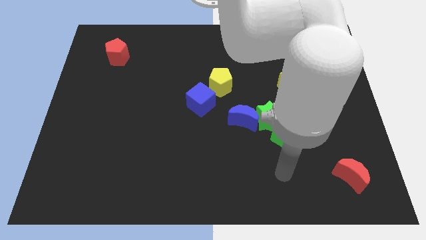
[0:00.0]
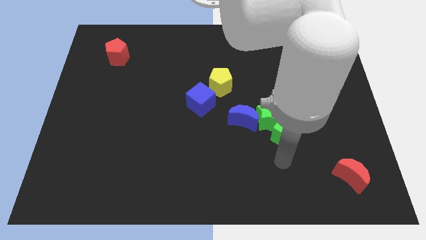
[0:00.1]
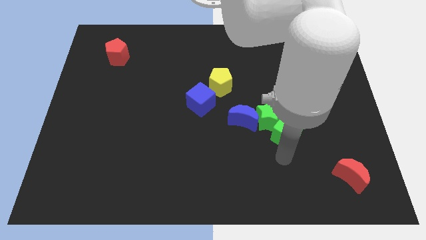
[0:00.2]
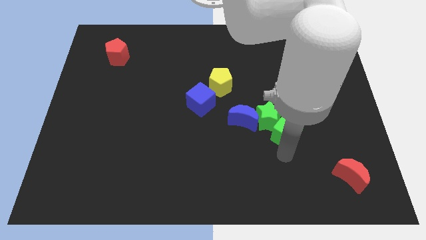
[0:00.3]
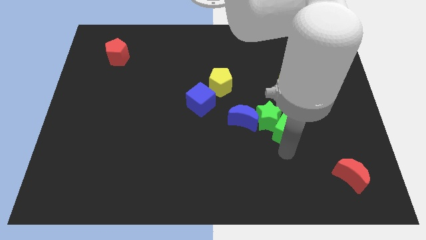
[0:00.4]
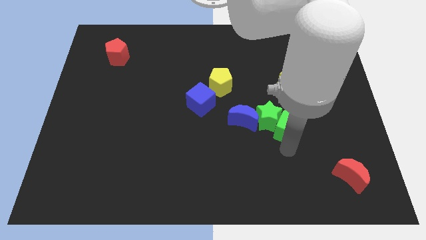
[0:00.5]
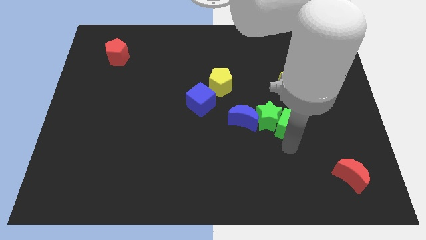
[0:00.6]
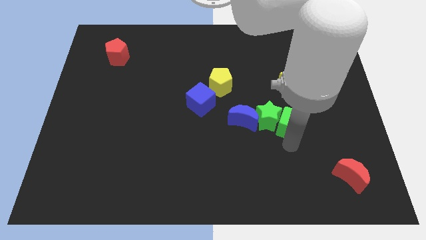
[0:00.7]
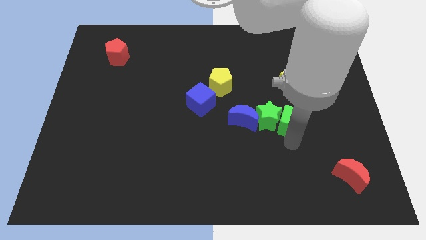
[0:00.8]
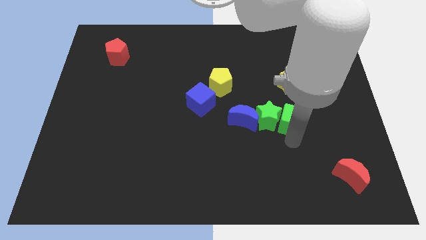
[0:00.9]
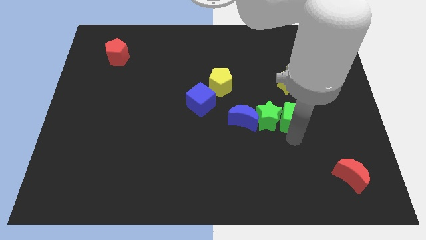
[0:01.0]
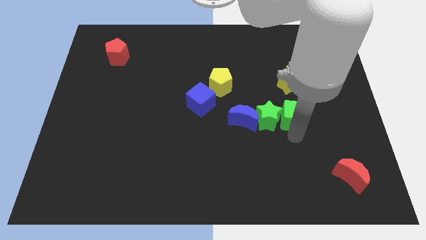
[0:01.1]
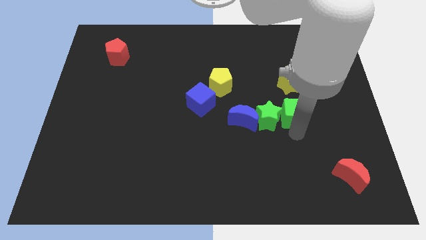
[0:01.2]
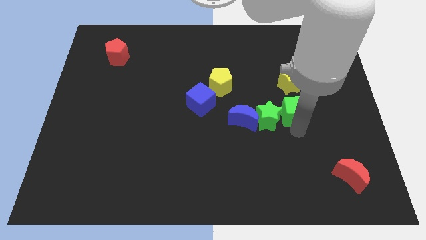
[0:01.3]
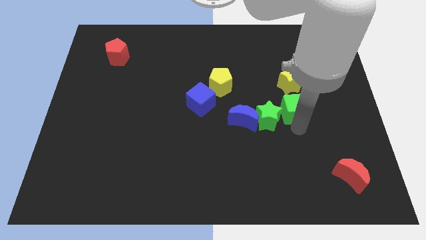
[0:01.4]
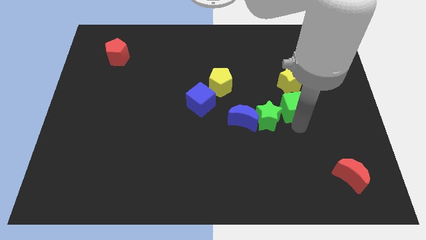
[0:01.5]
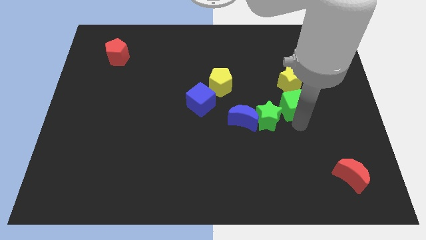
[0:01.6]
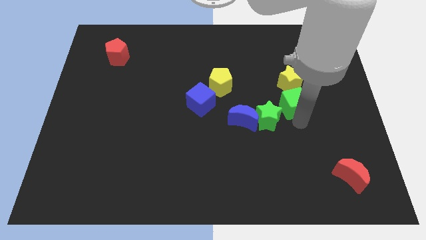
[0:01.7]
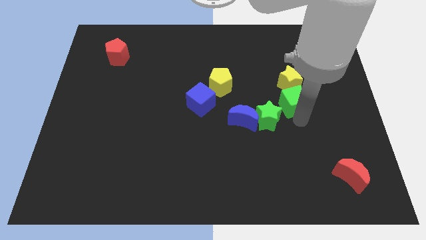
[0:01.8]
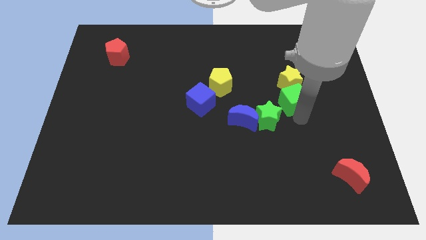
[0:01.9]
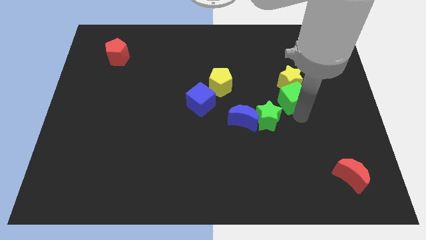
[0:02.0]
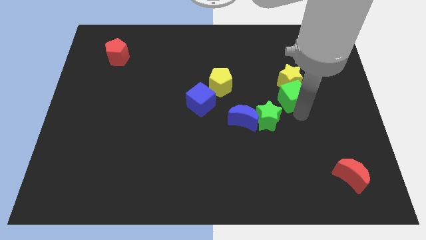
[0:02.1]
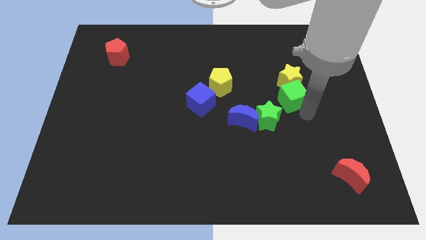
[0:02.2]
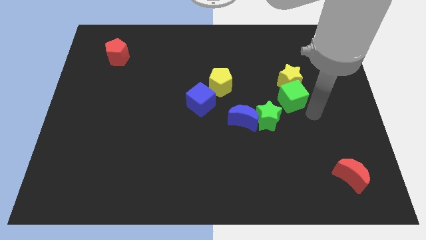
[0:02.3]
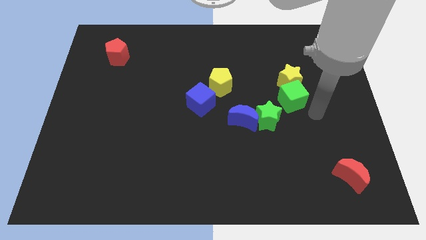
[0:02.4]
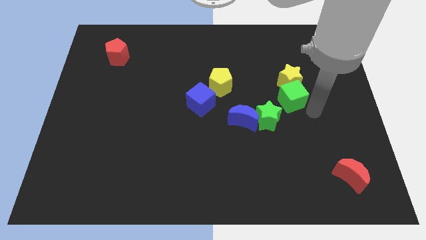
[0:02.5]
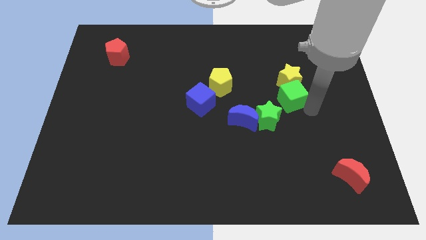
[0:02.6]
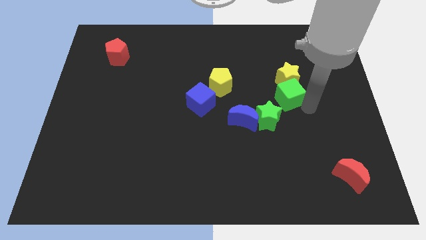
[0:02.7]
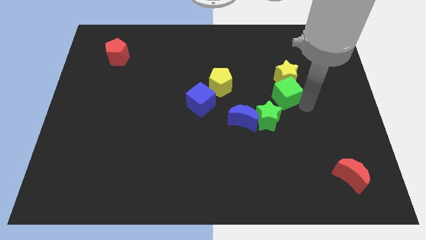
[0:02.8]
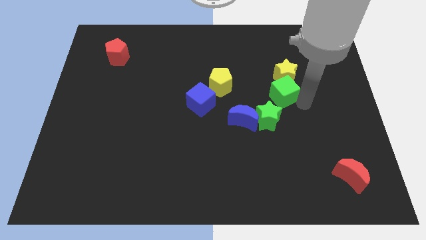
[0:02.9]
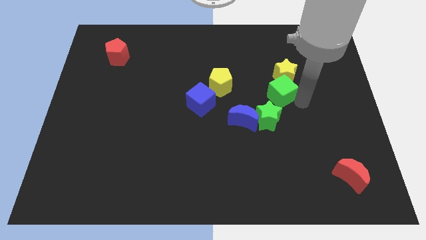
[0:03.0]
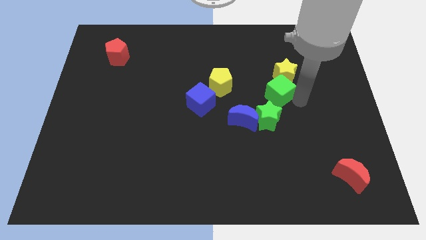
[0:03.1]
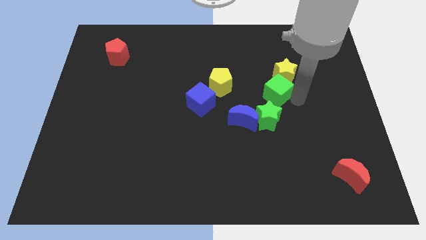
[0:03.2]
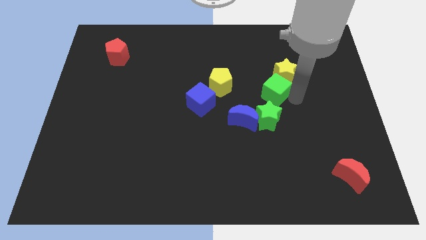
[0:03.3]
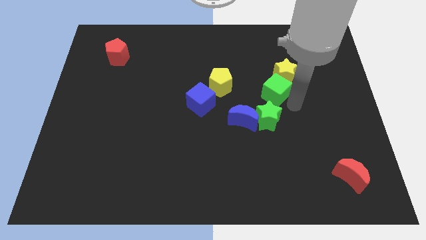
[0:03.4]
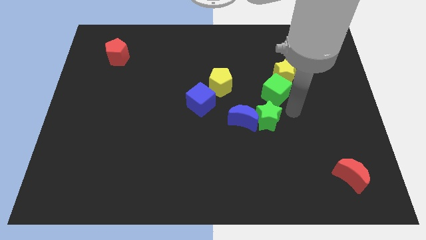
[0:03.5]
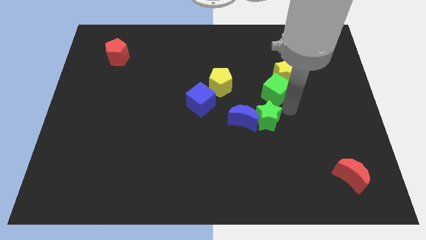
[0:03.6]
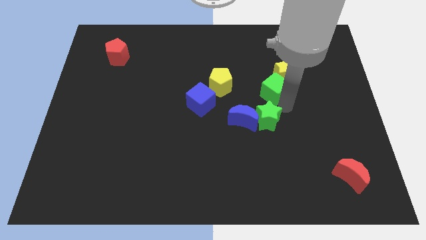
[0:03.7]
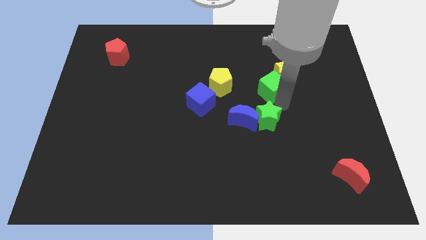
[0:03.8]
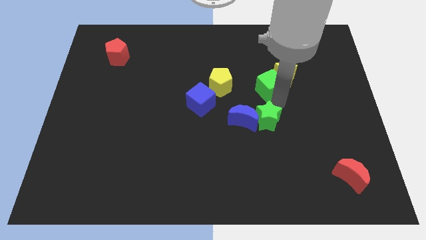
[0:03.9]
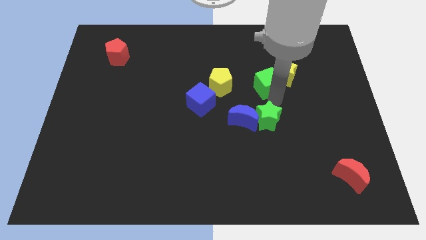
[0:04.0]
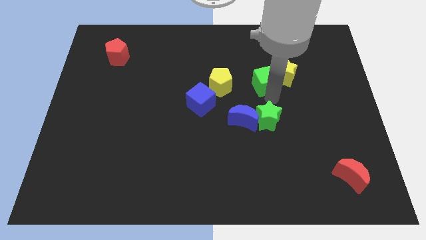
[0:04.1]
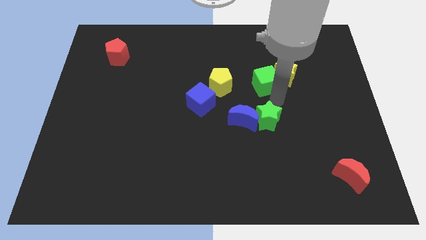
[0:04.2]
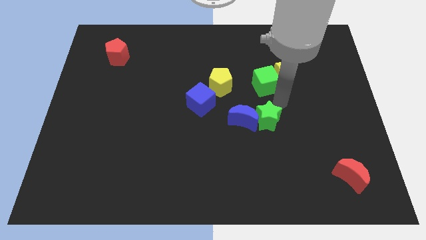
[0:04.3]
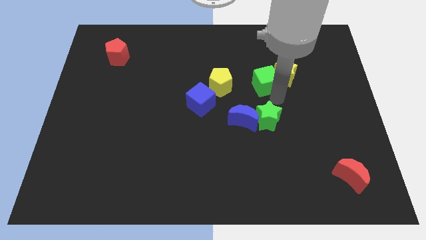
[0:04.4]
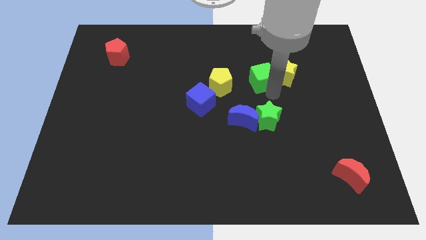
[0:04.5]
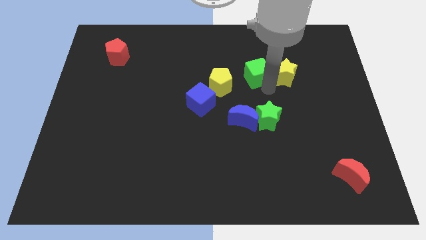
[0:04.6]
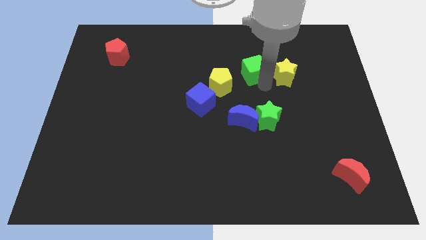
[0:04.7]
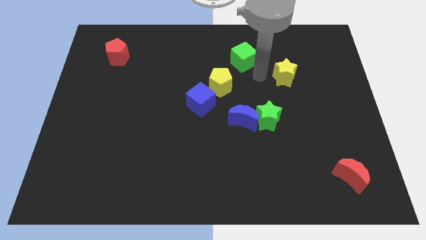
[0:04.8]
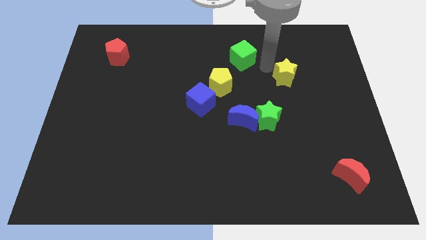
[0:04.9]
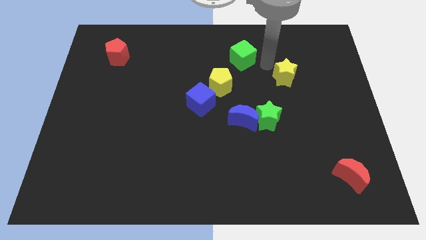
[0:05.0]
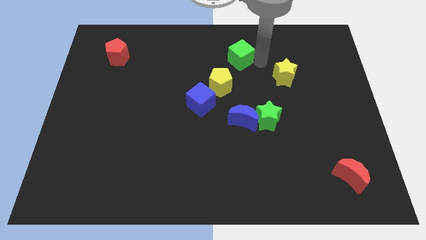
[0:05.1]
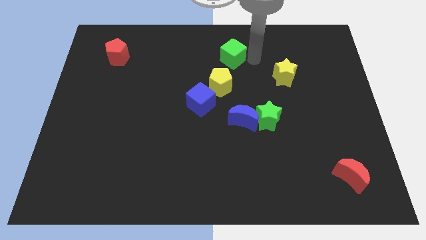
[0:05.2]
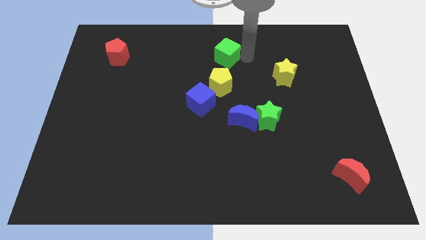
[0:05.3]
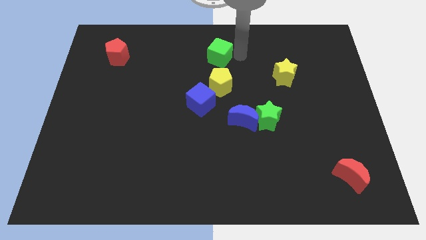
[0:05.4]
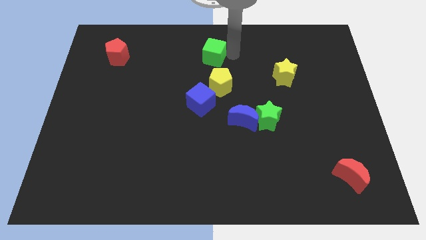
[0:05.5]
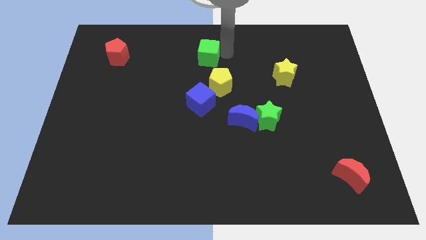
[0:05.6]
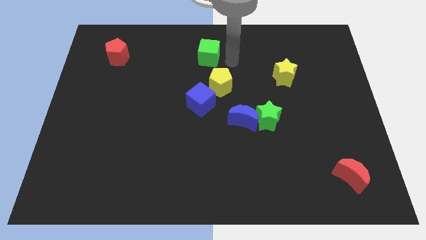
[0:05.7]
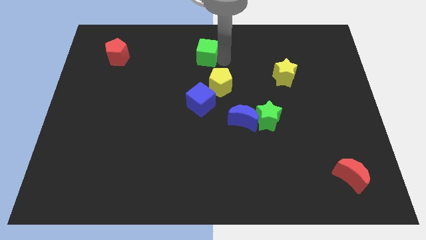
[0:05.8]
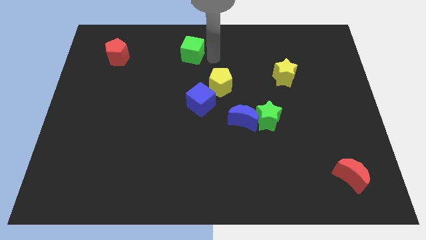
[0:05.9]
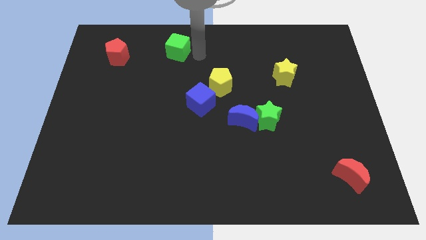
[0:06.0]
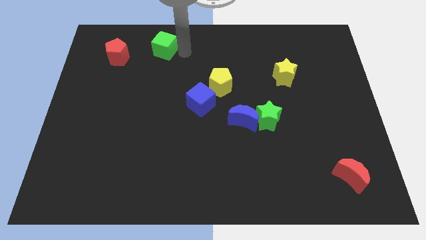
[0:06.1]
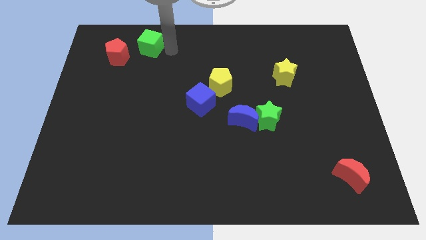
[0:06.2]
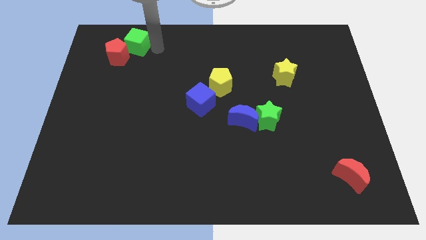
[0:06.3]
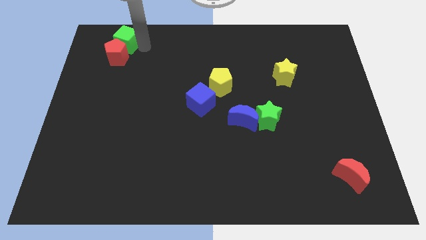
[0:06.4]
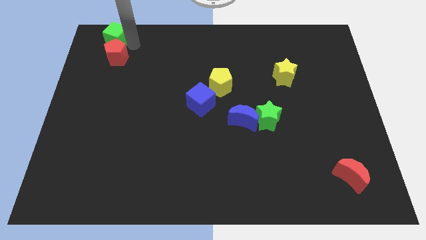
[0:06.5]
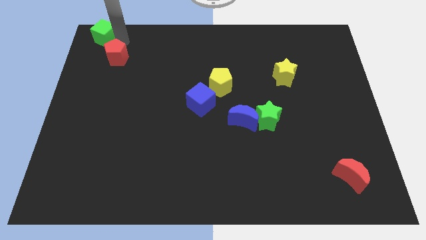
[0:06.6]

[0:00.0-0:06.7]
put the green cube to the top left of the board

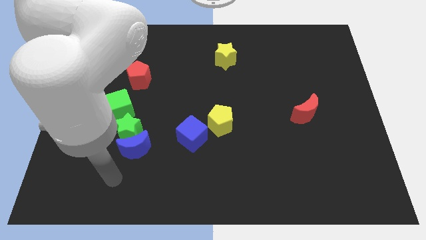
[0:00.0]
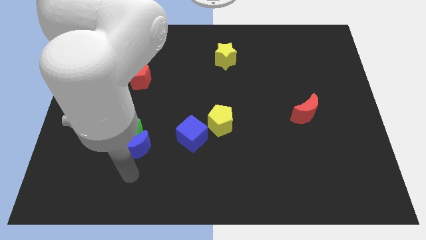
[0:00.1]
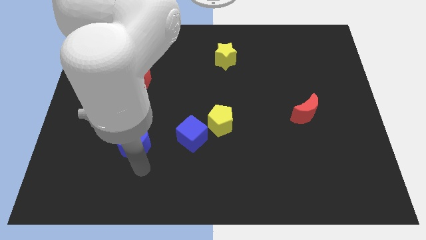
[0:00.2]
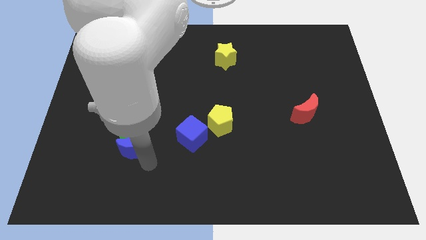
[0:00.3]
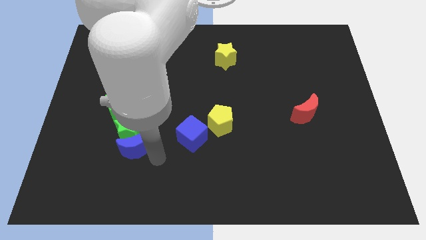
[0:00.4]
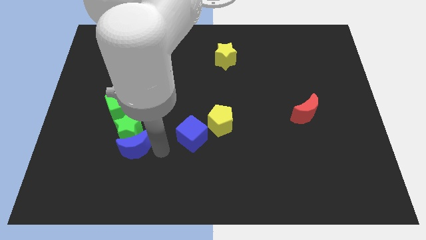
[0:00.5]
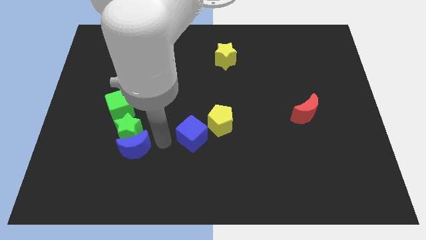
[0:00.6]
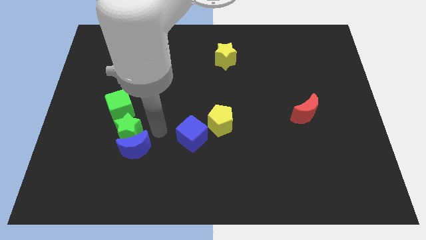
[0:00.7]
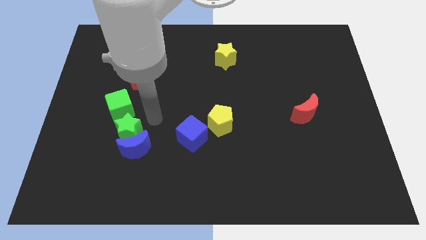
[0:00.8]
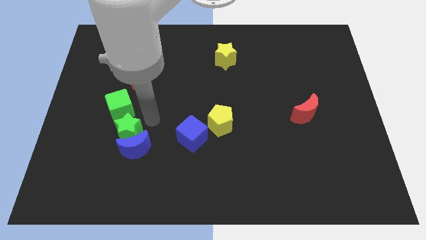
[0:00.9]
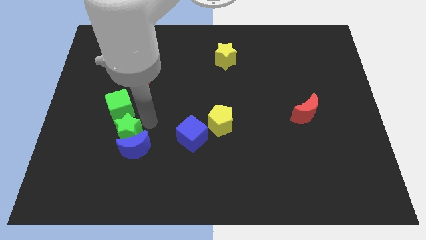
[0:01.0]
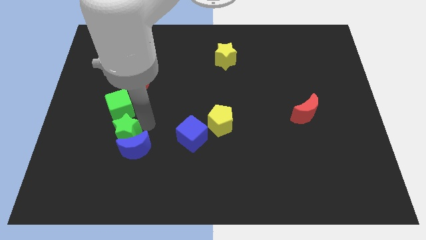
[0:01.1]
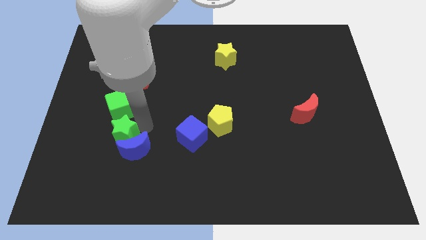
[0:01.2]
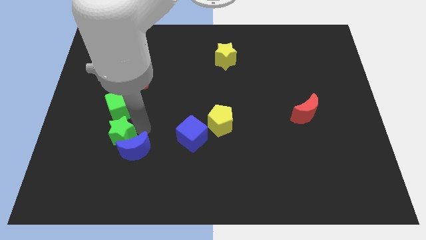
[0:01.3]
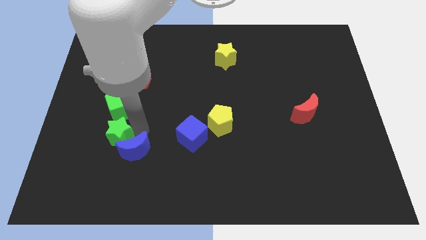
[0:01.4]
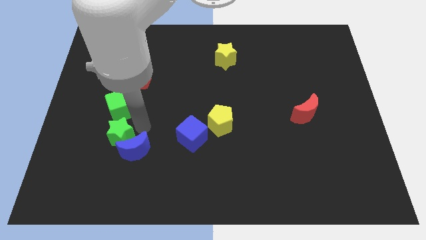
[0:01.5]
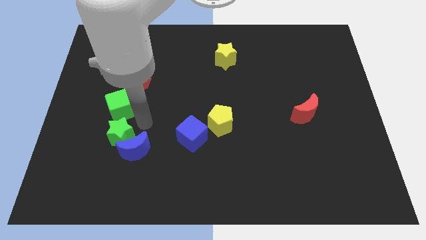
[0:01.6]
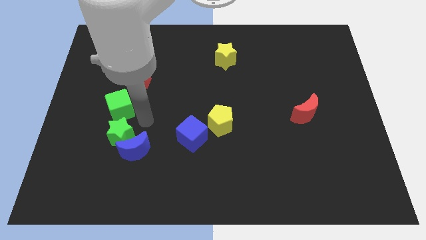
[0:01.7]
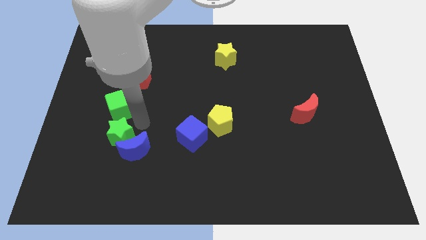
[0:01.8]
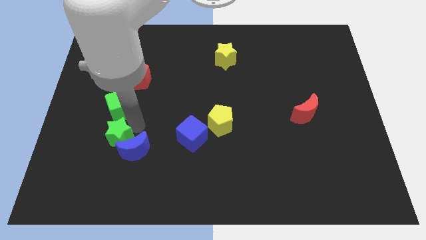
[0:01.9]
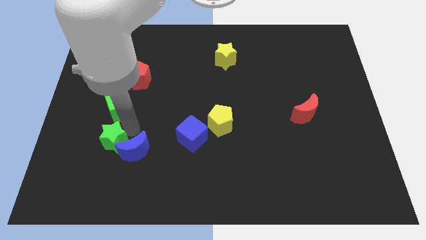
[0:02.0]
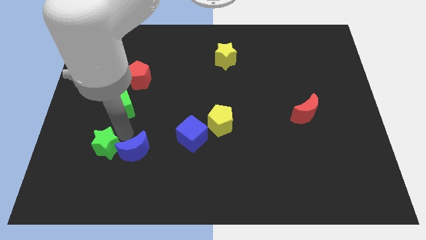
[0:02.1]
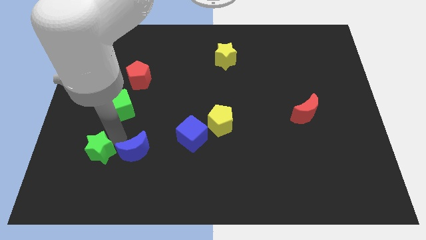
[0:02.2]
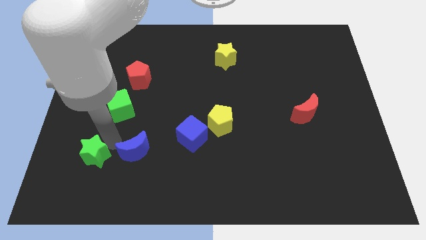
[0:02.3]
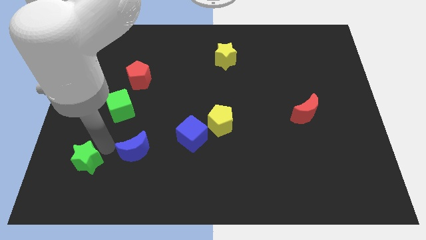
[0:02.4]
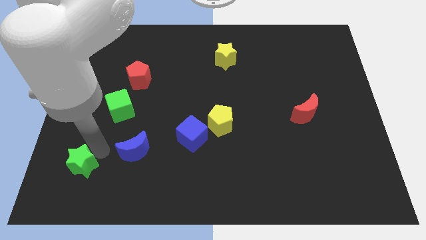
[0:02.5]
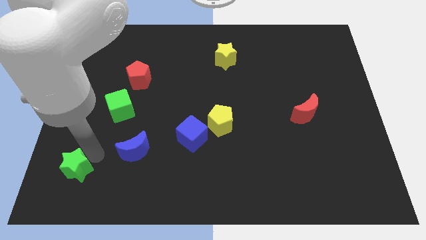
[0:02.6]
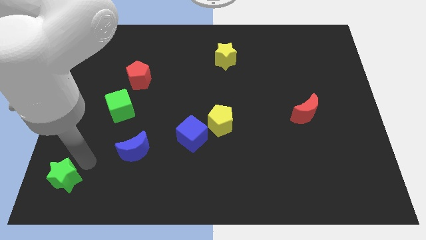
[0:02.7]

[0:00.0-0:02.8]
put the green star to the bottom left corner
